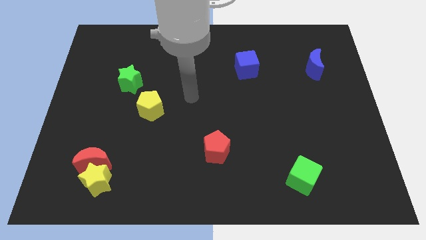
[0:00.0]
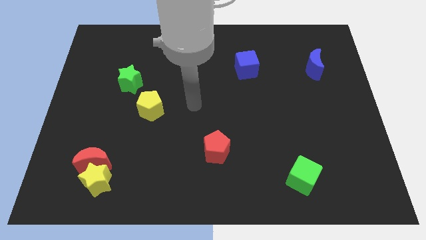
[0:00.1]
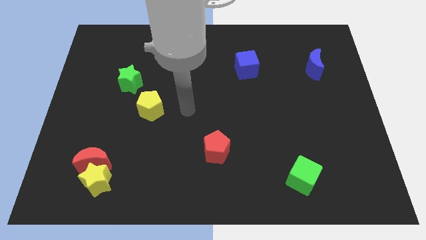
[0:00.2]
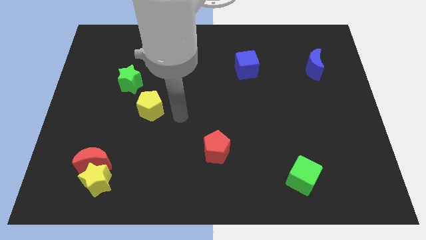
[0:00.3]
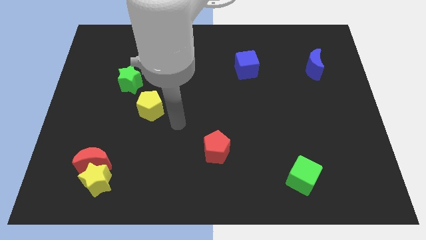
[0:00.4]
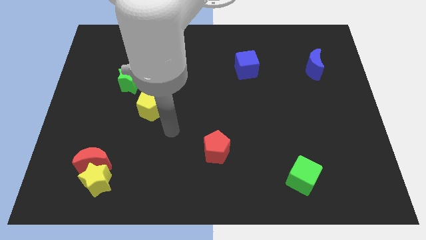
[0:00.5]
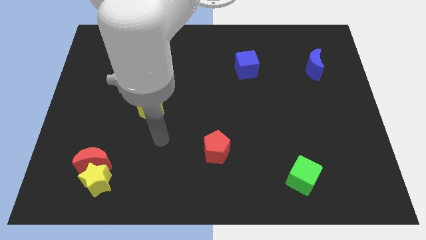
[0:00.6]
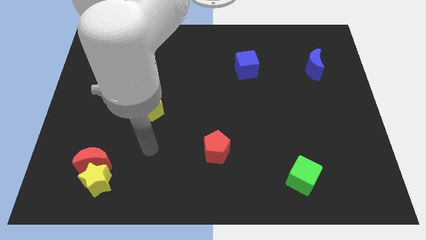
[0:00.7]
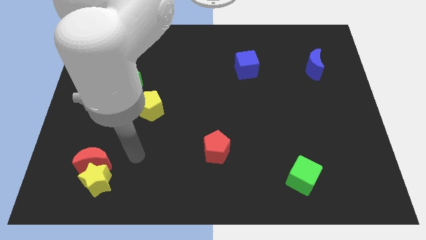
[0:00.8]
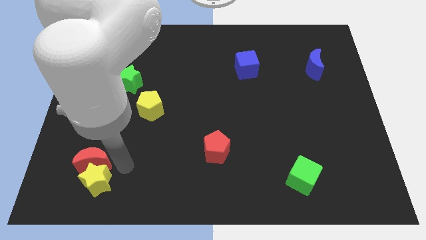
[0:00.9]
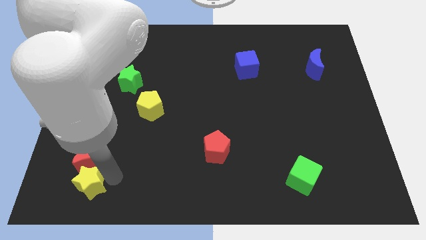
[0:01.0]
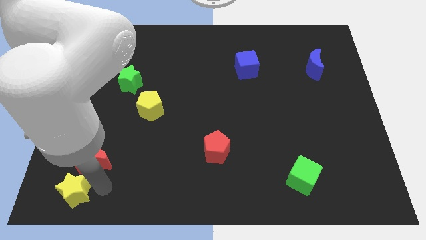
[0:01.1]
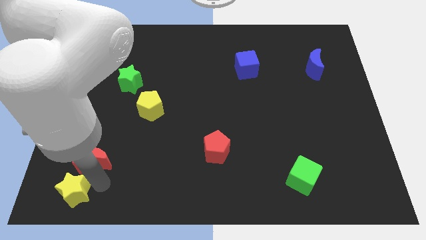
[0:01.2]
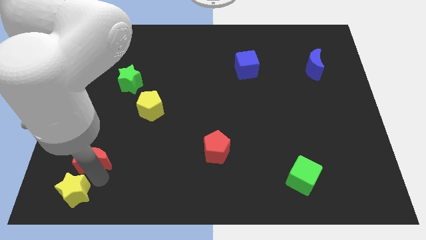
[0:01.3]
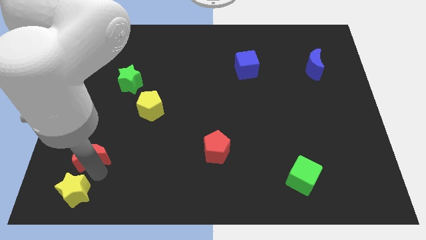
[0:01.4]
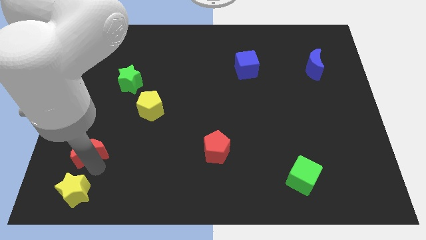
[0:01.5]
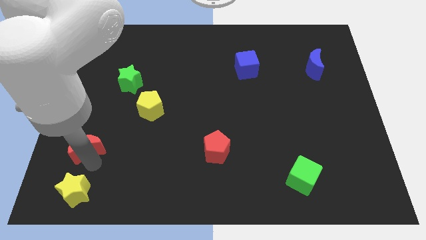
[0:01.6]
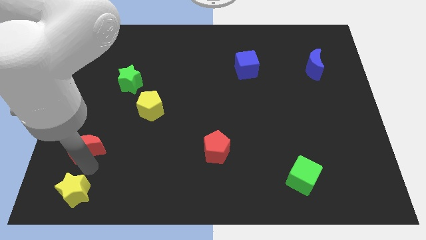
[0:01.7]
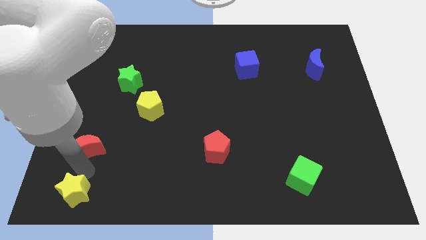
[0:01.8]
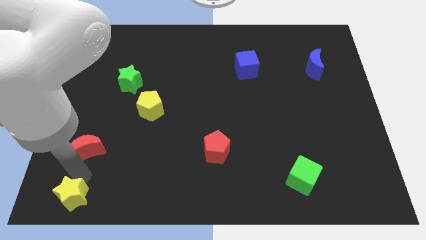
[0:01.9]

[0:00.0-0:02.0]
separate the red moon from the yellow star

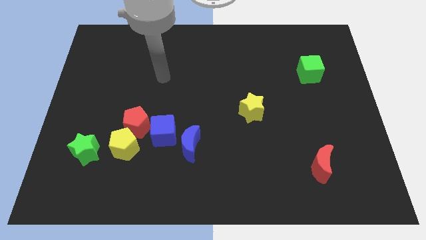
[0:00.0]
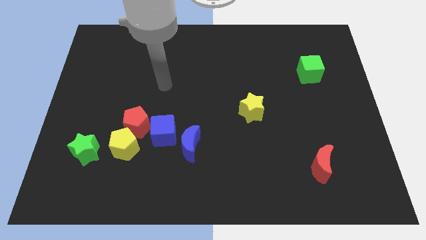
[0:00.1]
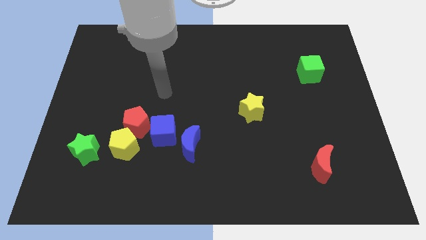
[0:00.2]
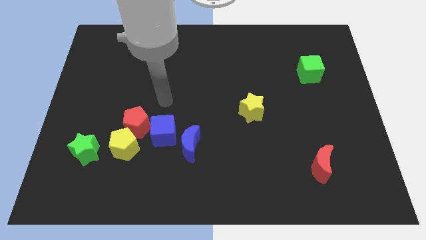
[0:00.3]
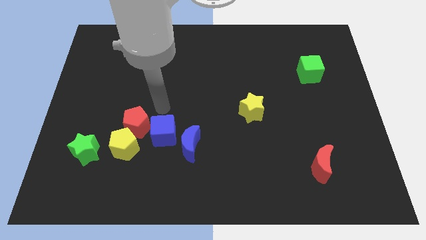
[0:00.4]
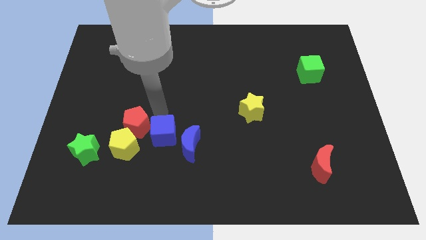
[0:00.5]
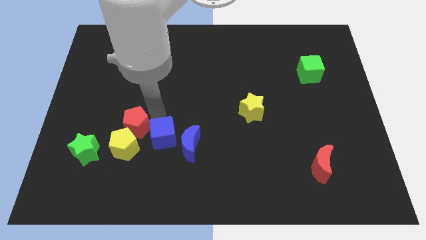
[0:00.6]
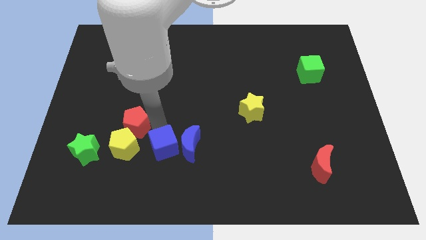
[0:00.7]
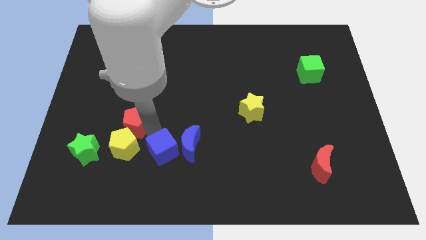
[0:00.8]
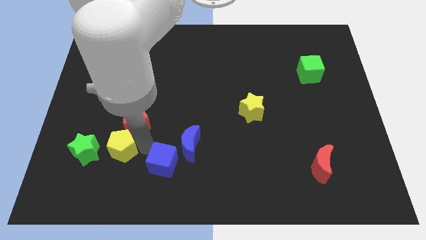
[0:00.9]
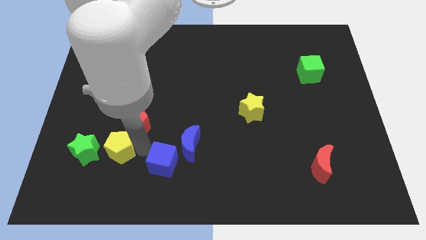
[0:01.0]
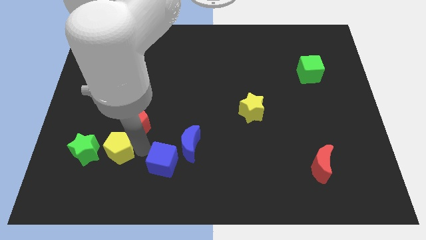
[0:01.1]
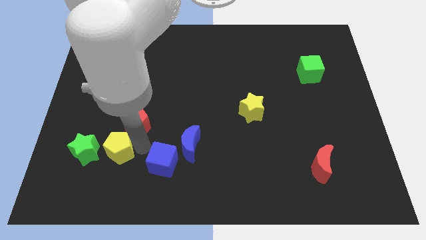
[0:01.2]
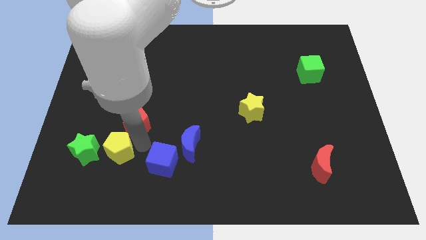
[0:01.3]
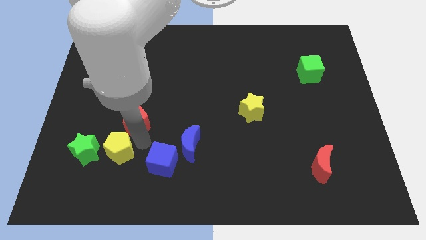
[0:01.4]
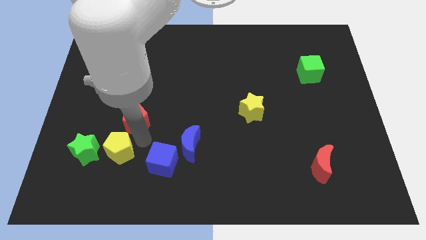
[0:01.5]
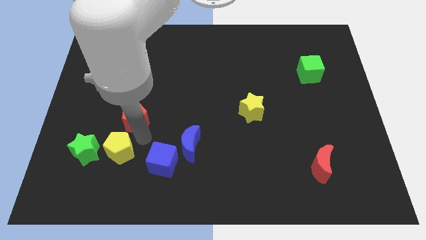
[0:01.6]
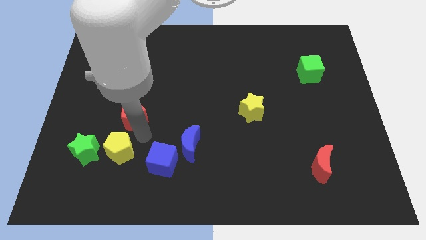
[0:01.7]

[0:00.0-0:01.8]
separate the red pentagon from the yellow pentagon and blue cube

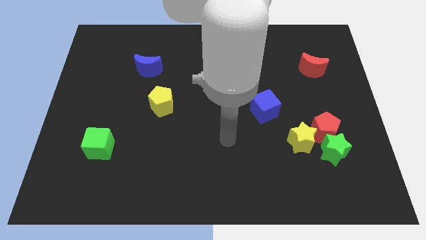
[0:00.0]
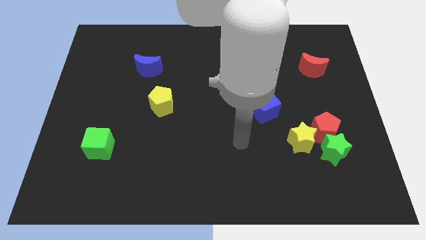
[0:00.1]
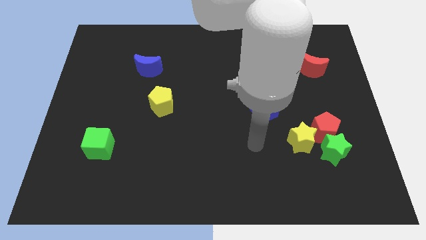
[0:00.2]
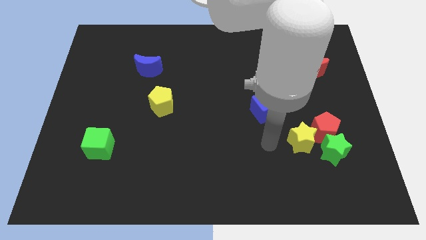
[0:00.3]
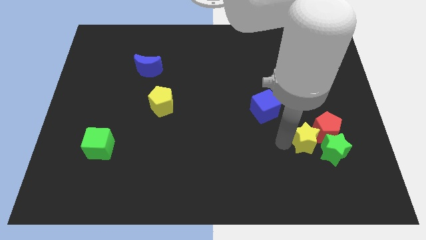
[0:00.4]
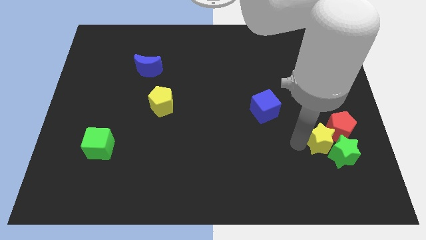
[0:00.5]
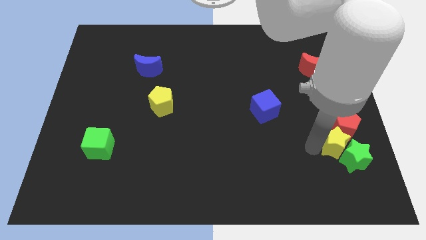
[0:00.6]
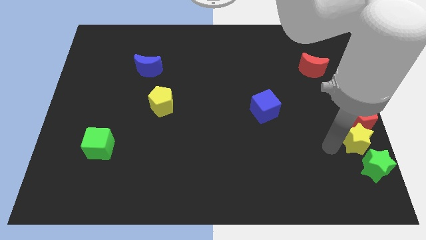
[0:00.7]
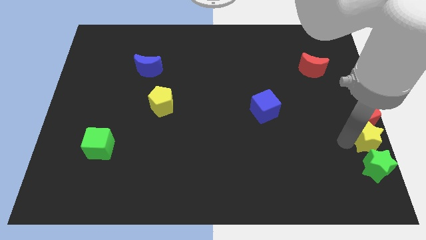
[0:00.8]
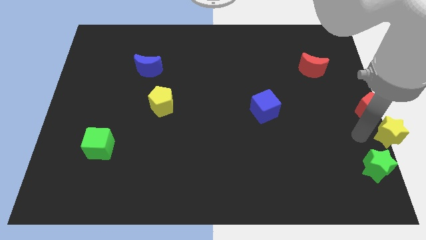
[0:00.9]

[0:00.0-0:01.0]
pull the red pentagon apart from the green star and yellow star

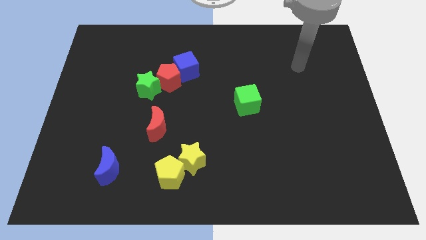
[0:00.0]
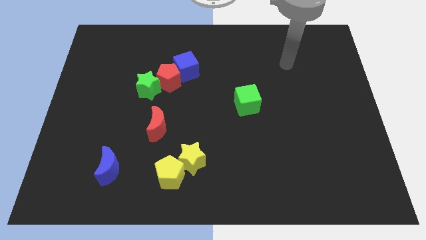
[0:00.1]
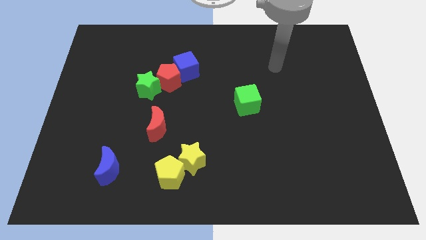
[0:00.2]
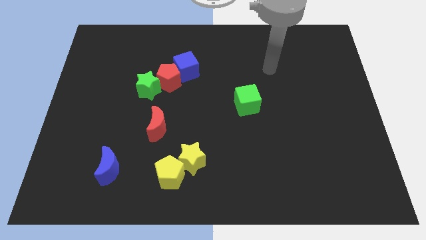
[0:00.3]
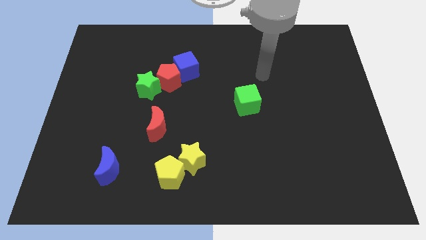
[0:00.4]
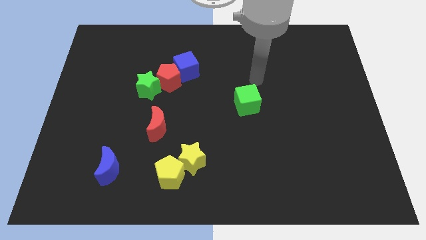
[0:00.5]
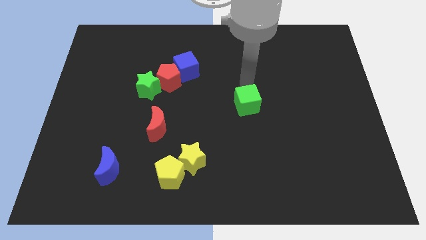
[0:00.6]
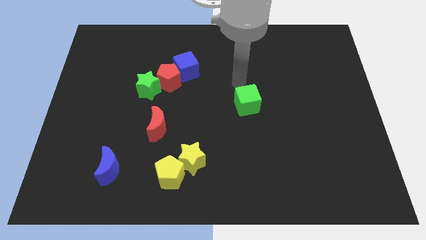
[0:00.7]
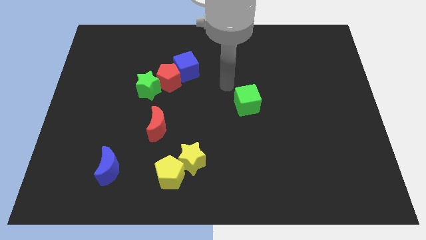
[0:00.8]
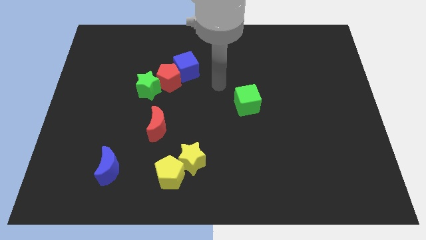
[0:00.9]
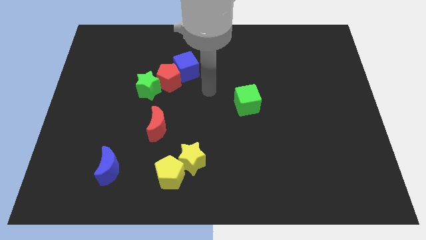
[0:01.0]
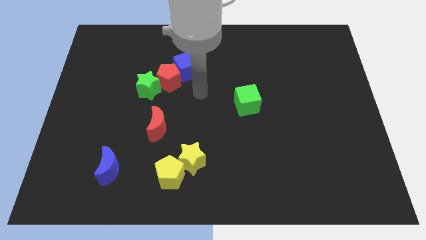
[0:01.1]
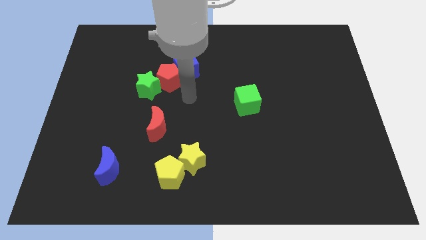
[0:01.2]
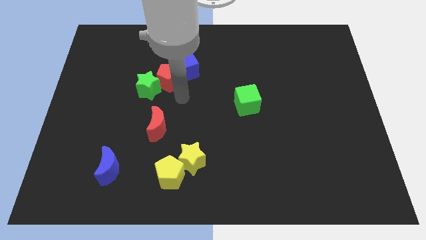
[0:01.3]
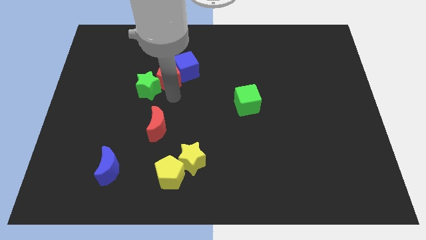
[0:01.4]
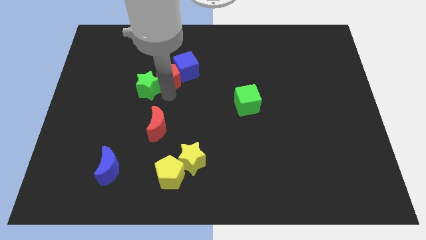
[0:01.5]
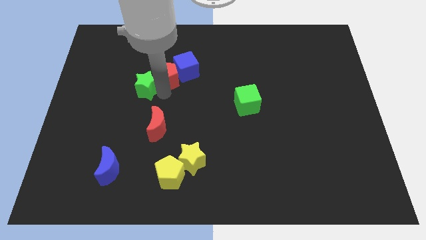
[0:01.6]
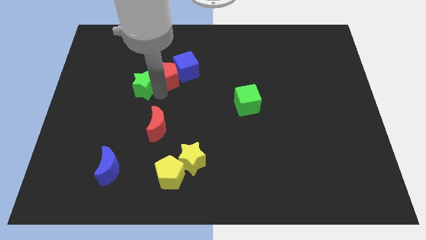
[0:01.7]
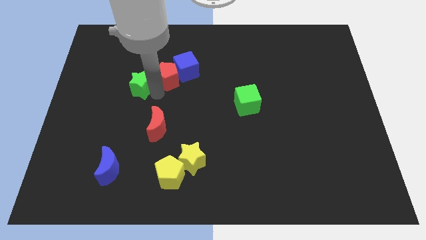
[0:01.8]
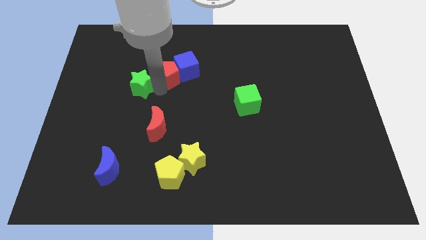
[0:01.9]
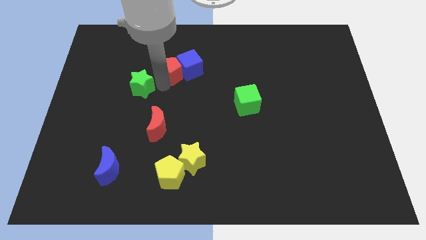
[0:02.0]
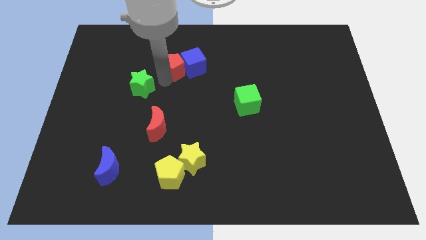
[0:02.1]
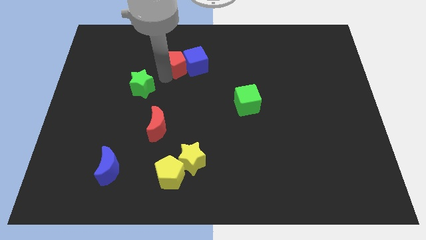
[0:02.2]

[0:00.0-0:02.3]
move the green star away from the red pentagon

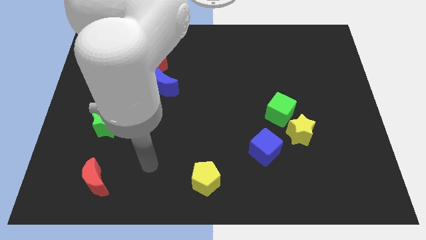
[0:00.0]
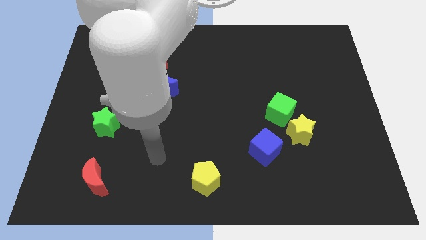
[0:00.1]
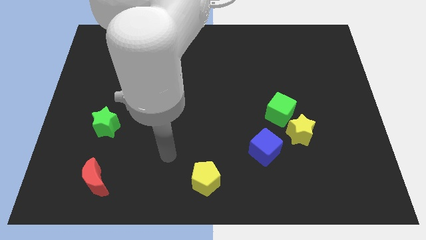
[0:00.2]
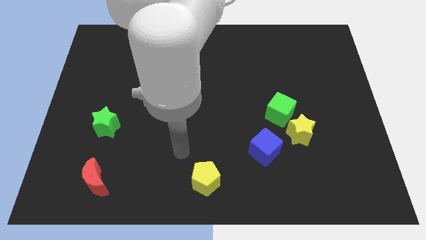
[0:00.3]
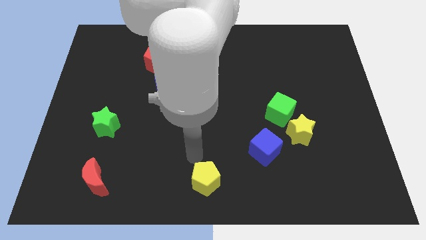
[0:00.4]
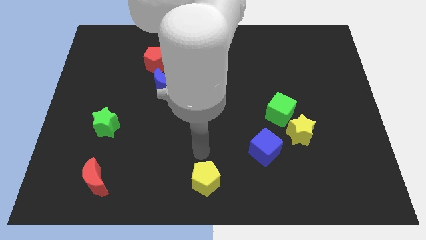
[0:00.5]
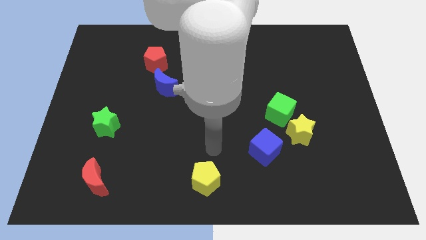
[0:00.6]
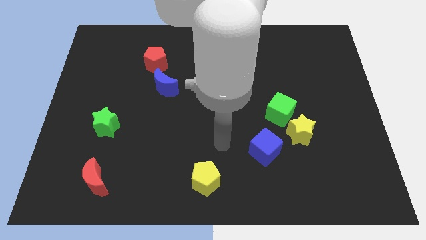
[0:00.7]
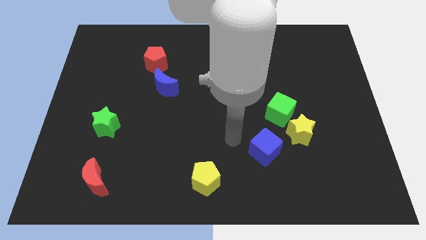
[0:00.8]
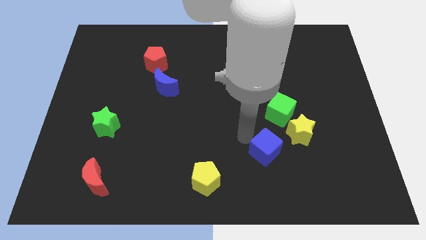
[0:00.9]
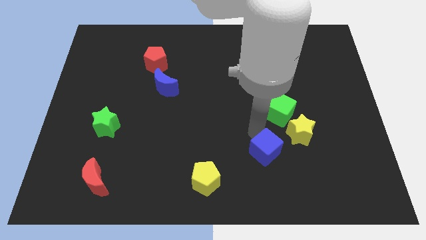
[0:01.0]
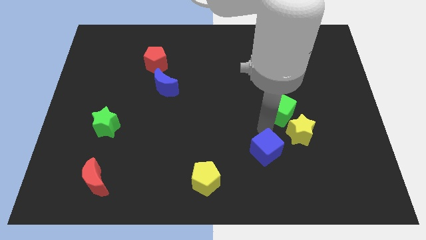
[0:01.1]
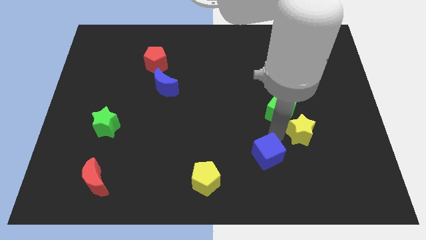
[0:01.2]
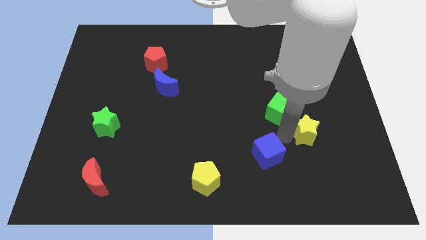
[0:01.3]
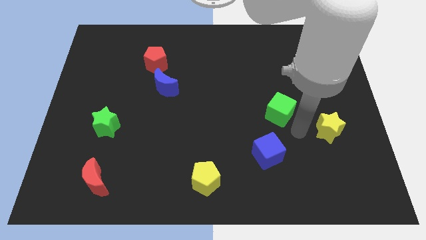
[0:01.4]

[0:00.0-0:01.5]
separate the green cube from the yellow star

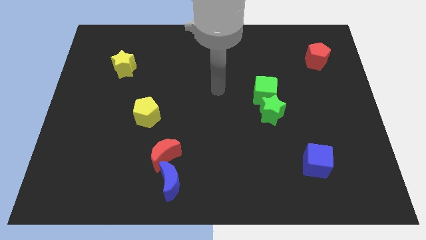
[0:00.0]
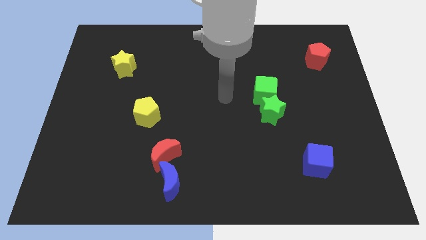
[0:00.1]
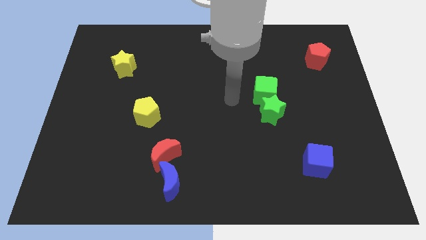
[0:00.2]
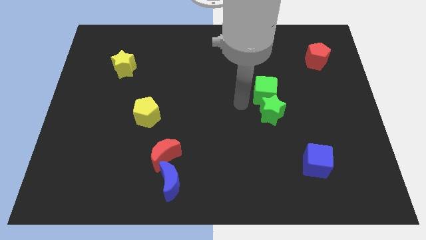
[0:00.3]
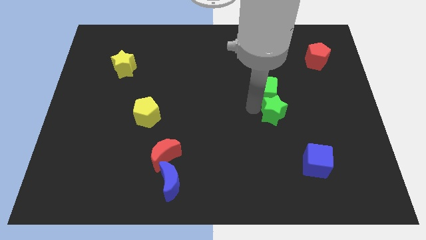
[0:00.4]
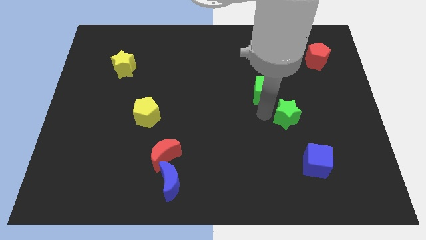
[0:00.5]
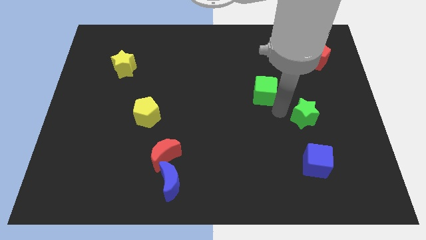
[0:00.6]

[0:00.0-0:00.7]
pull the green cube apart from the green star
